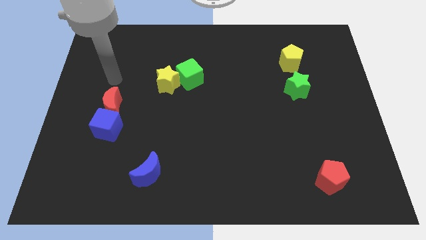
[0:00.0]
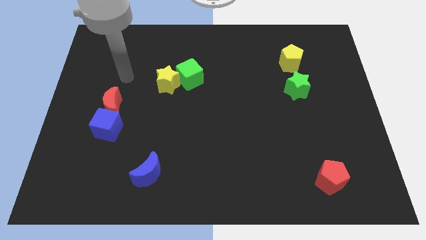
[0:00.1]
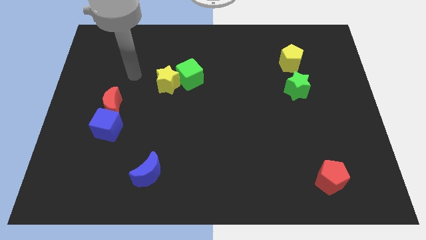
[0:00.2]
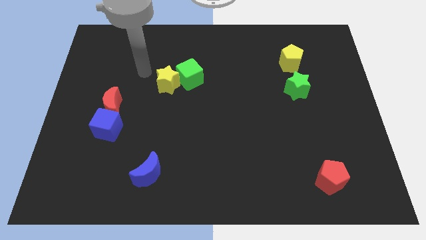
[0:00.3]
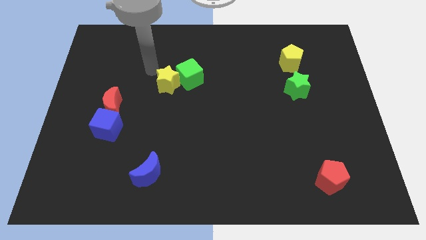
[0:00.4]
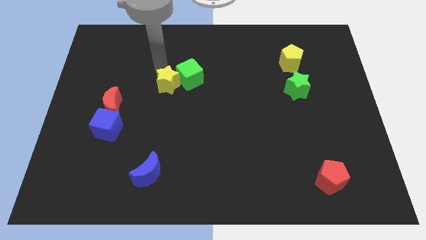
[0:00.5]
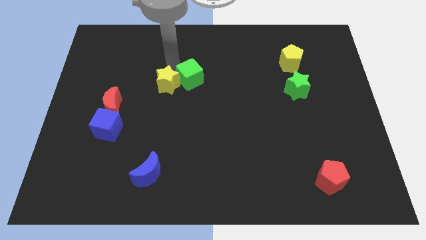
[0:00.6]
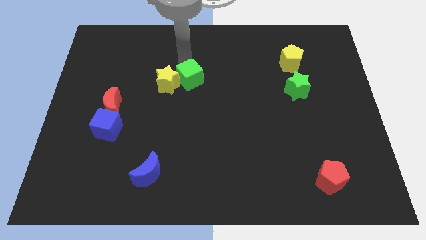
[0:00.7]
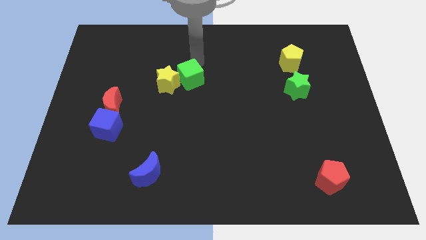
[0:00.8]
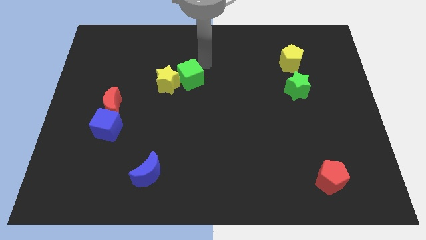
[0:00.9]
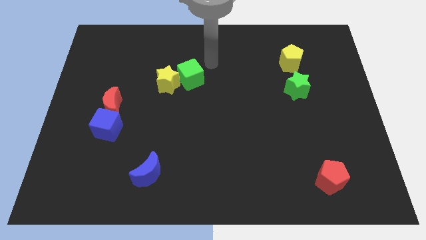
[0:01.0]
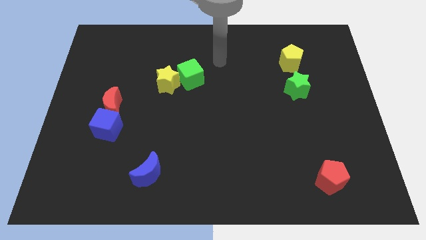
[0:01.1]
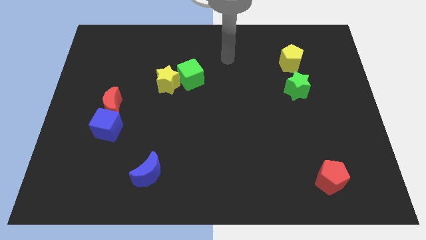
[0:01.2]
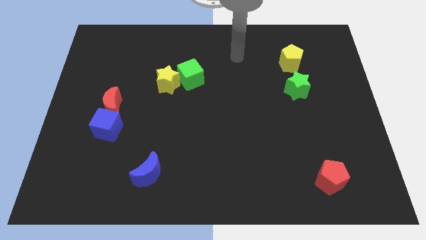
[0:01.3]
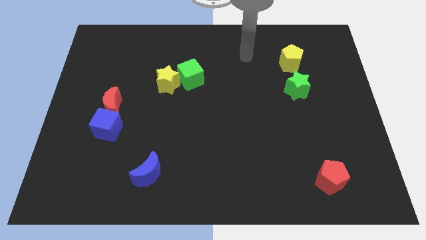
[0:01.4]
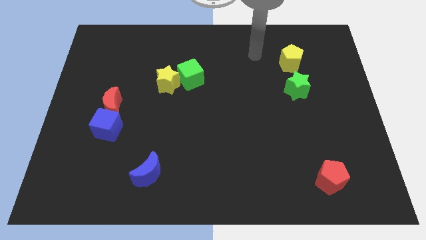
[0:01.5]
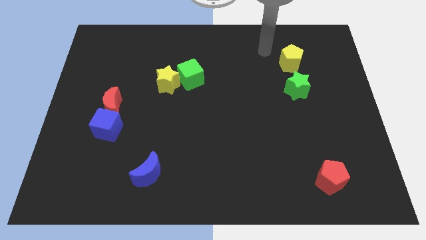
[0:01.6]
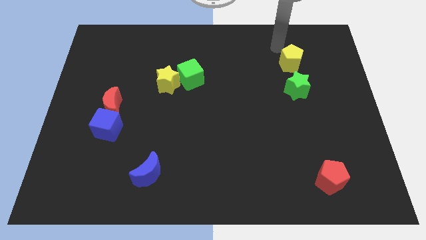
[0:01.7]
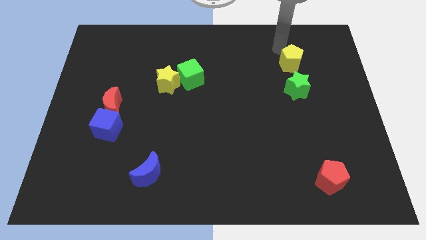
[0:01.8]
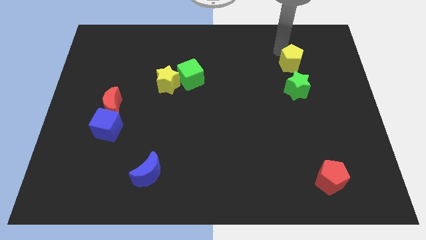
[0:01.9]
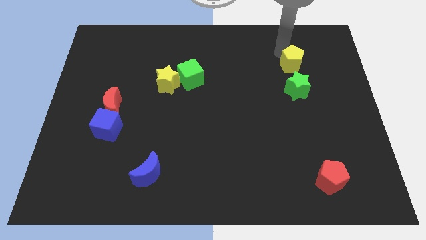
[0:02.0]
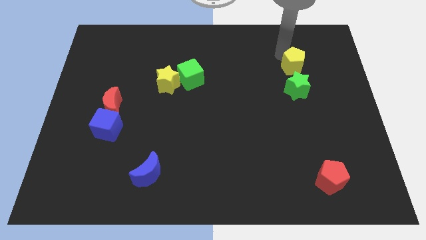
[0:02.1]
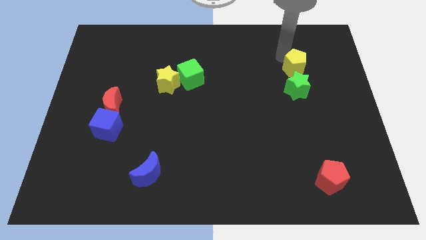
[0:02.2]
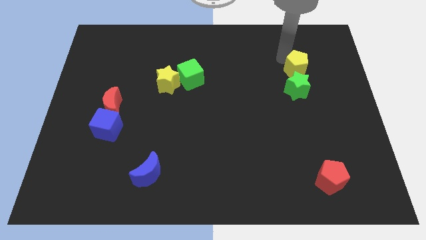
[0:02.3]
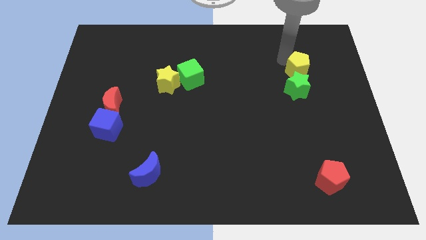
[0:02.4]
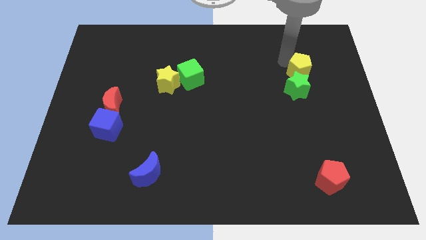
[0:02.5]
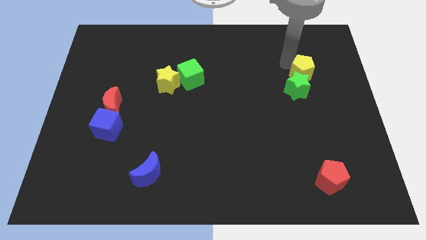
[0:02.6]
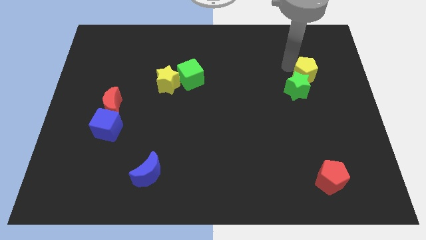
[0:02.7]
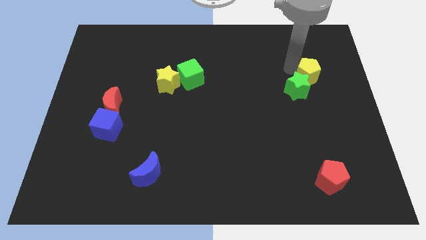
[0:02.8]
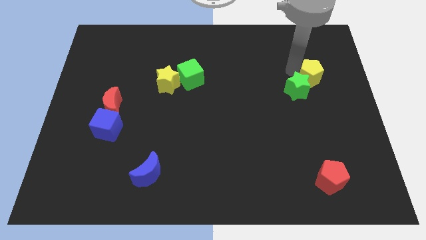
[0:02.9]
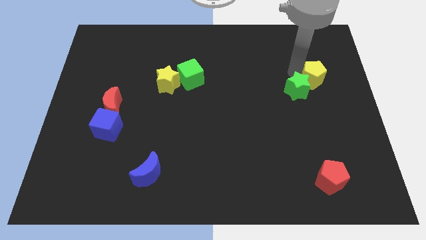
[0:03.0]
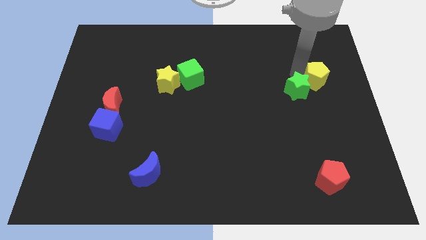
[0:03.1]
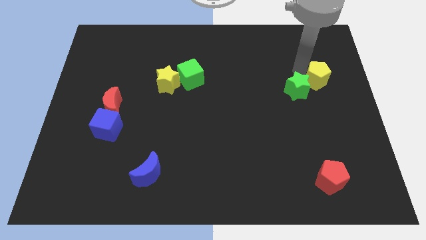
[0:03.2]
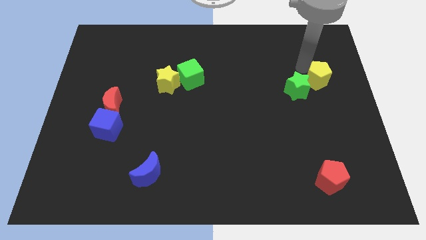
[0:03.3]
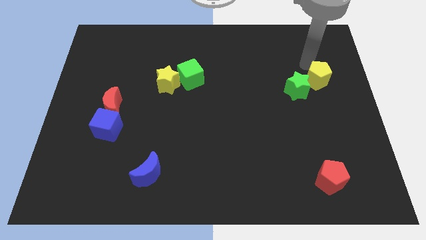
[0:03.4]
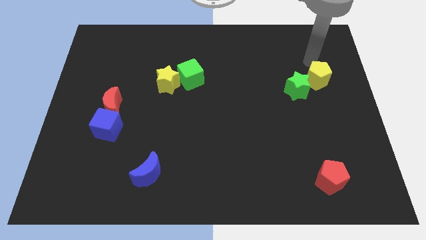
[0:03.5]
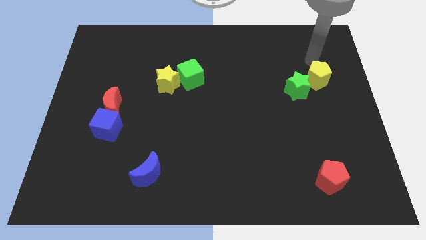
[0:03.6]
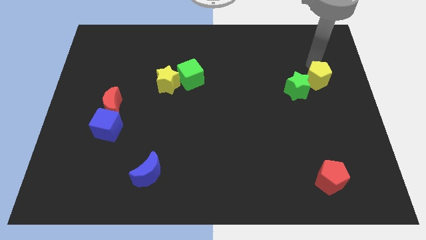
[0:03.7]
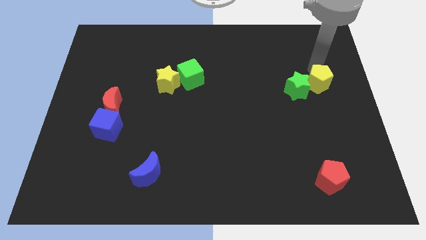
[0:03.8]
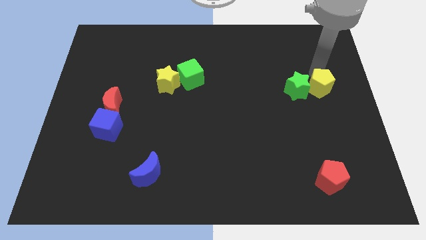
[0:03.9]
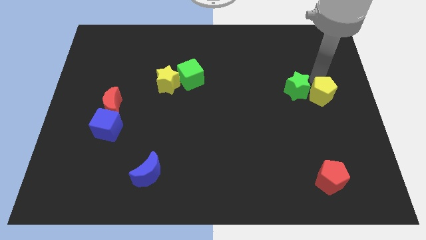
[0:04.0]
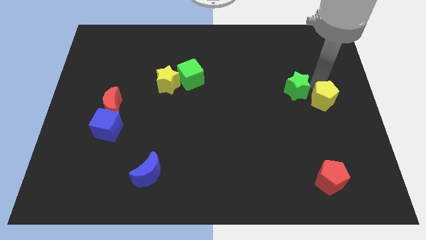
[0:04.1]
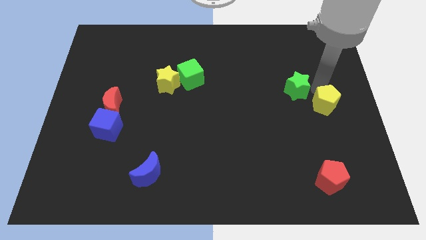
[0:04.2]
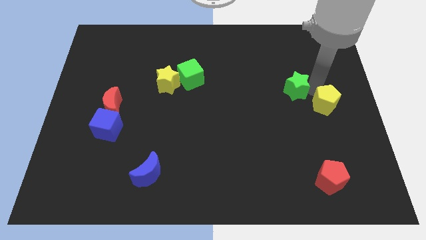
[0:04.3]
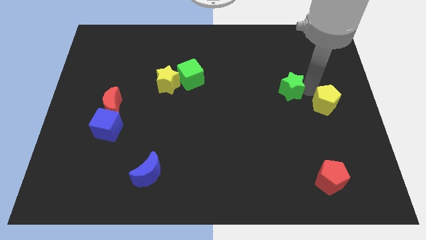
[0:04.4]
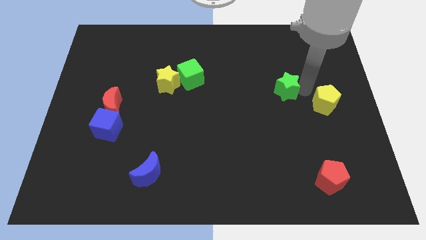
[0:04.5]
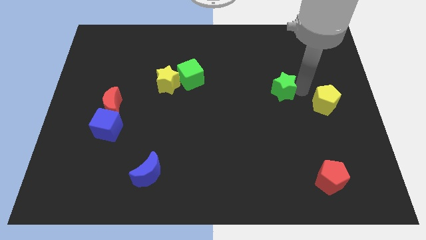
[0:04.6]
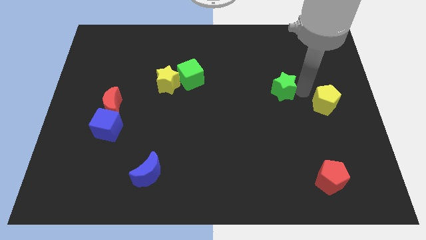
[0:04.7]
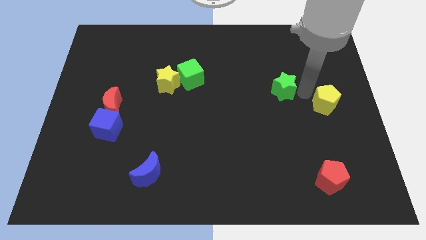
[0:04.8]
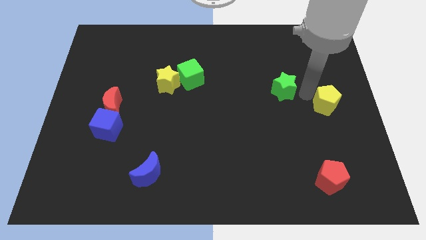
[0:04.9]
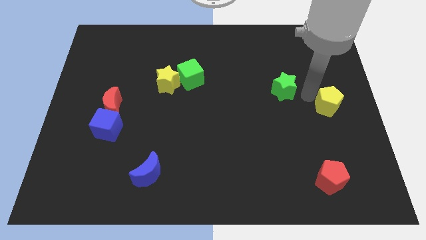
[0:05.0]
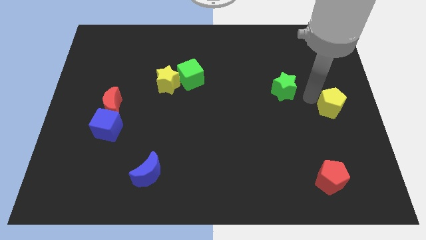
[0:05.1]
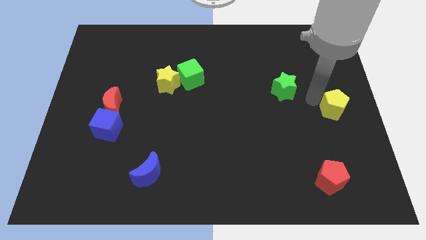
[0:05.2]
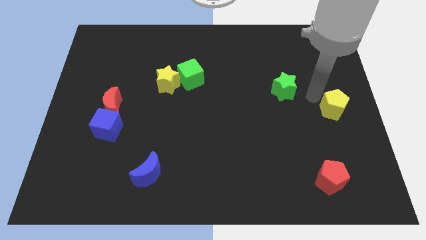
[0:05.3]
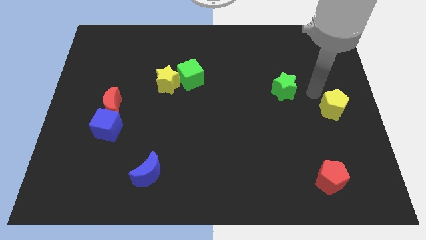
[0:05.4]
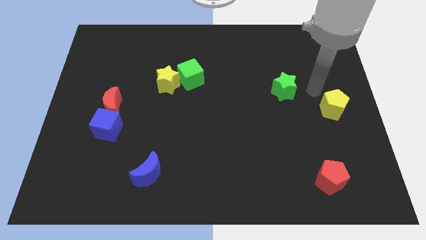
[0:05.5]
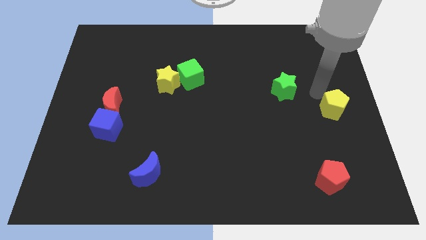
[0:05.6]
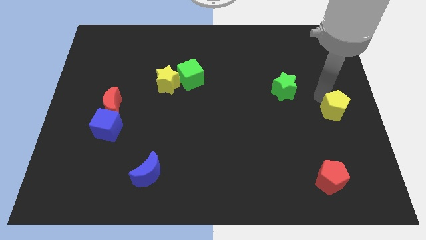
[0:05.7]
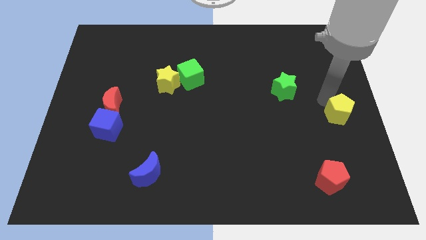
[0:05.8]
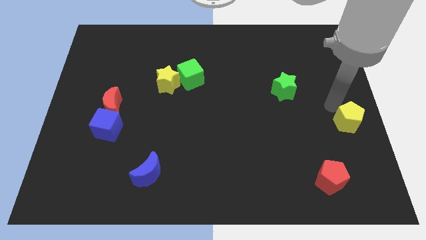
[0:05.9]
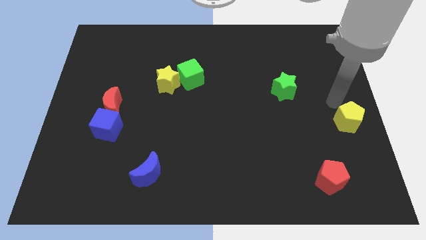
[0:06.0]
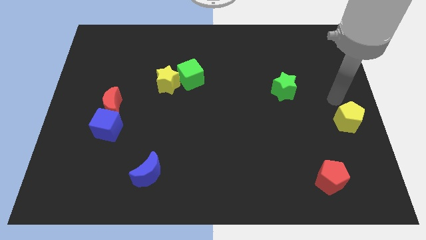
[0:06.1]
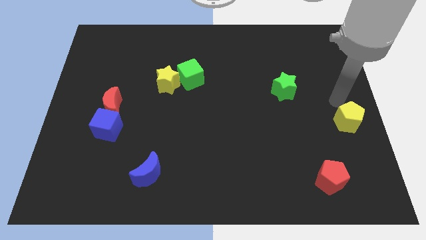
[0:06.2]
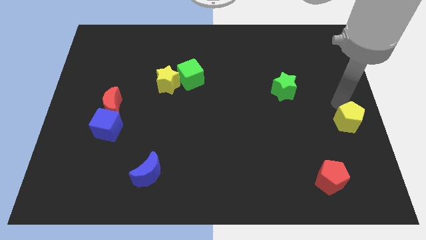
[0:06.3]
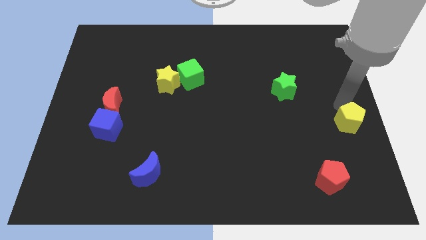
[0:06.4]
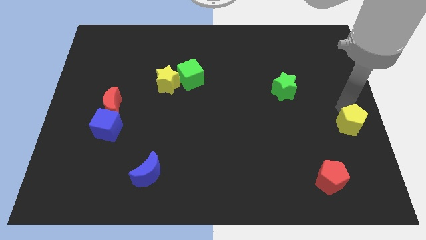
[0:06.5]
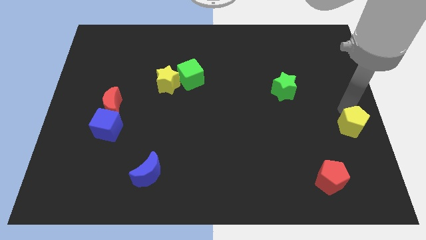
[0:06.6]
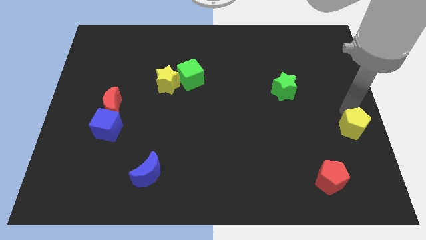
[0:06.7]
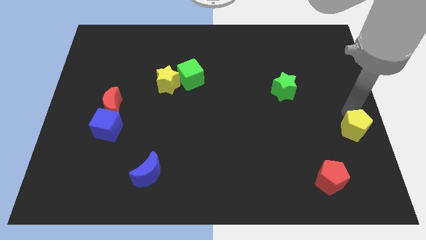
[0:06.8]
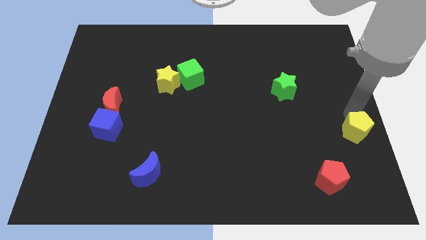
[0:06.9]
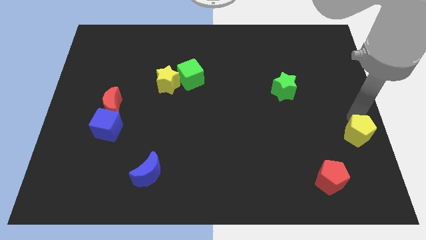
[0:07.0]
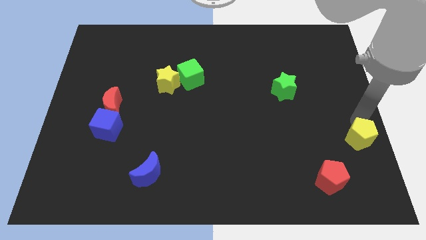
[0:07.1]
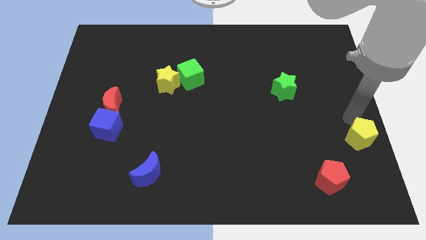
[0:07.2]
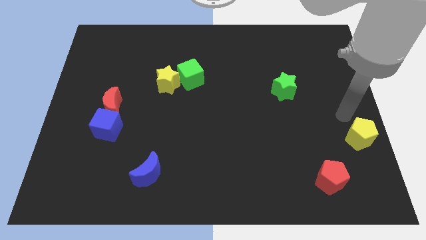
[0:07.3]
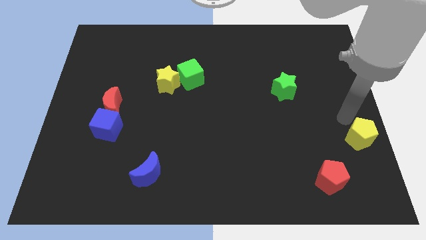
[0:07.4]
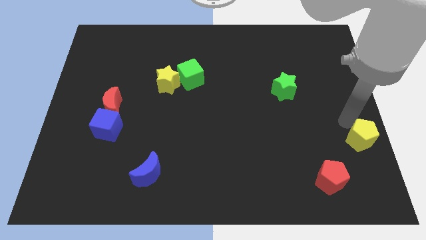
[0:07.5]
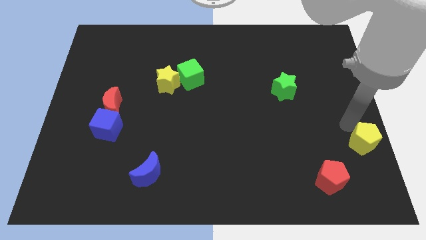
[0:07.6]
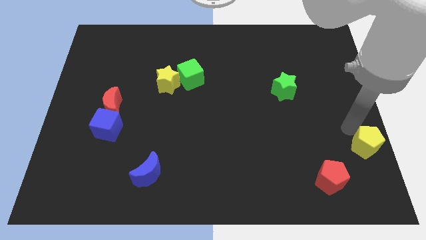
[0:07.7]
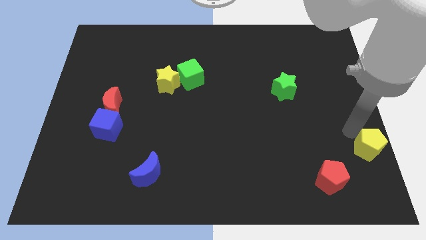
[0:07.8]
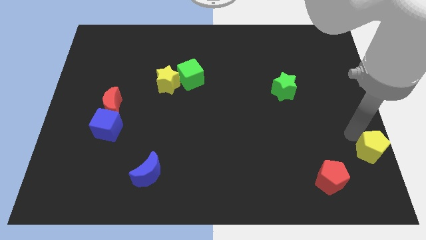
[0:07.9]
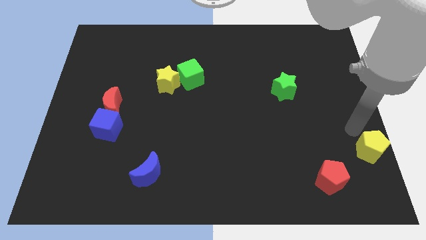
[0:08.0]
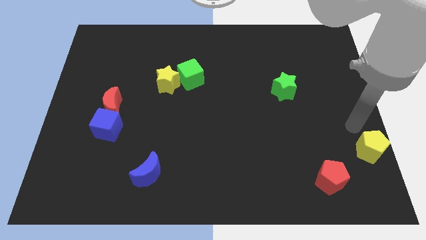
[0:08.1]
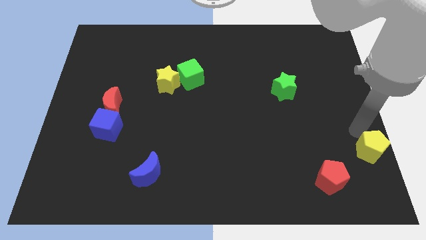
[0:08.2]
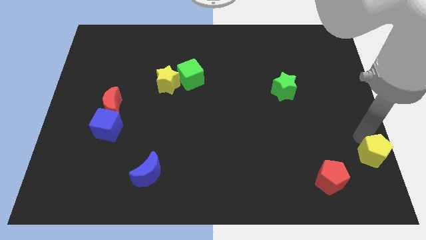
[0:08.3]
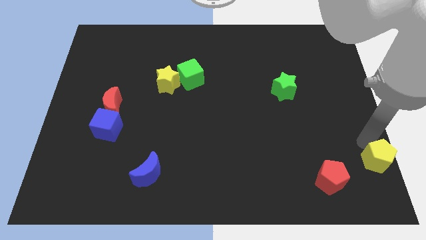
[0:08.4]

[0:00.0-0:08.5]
slide the yellow pentagon to the bottom right of the board
